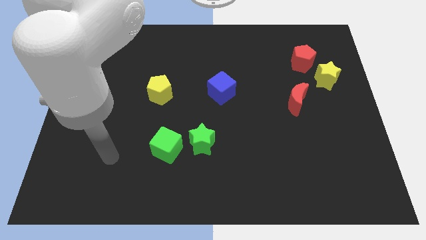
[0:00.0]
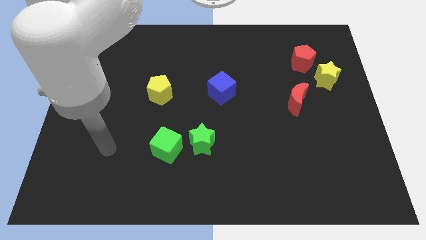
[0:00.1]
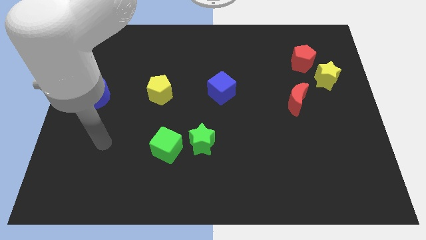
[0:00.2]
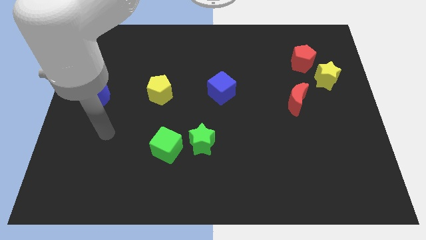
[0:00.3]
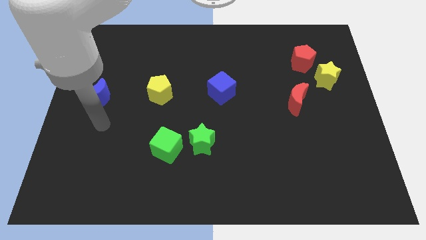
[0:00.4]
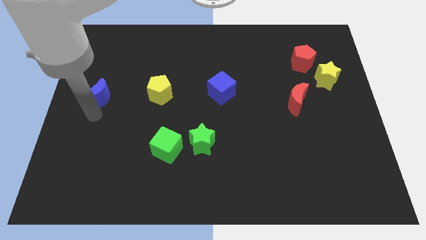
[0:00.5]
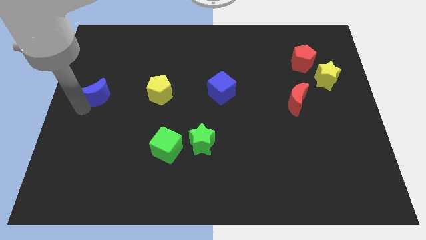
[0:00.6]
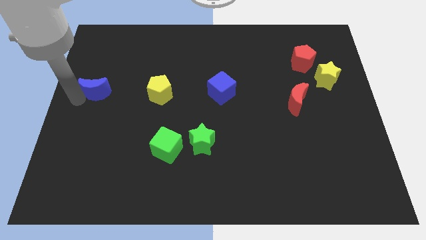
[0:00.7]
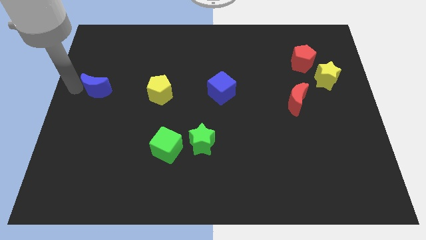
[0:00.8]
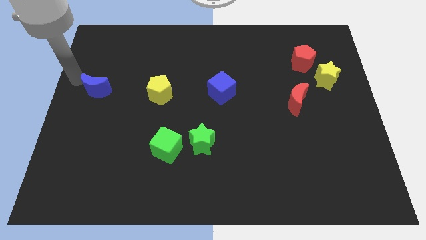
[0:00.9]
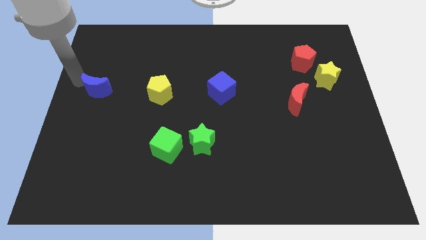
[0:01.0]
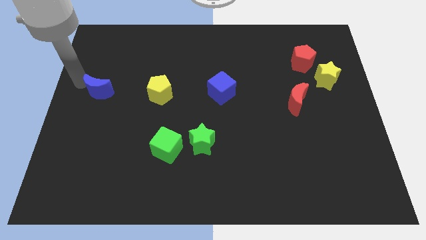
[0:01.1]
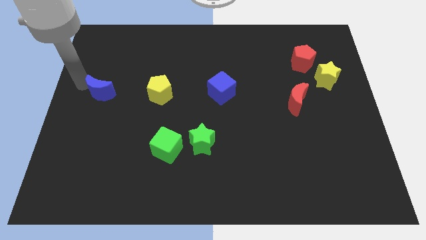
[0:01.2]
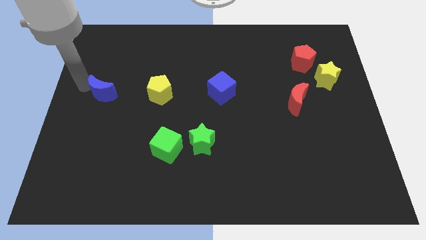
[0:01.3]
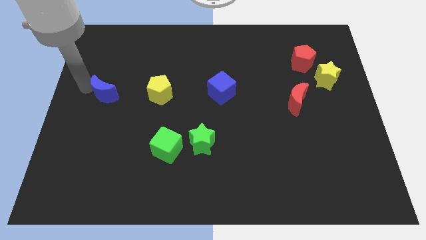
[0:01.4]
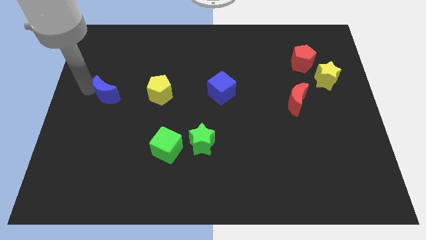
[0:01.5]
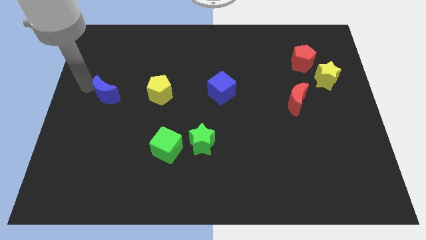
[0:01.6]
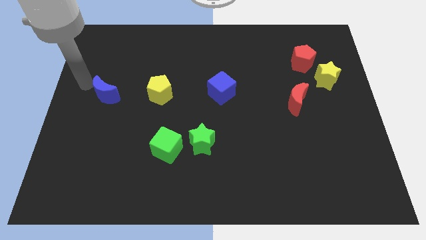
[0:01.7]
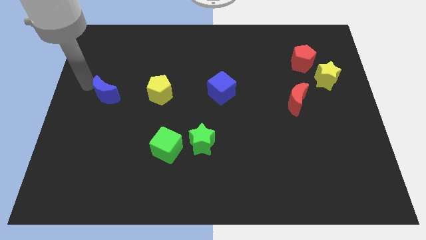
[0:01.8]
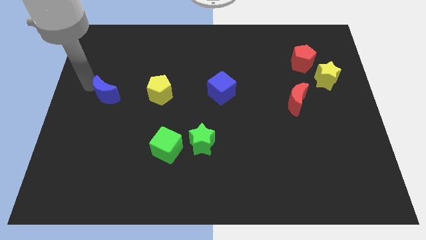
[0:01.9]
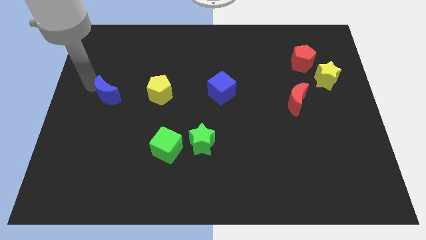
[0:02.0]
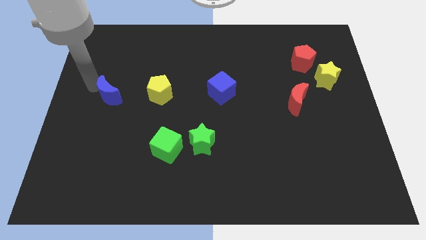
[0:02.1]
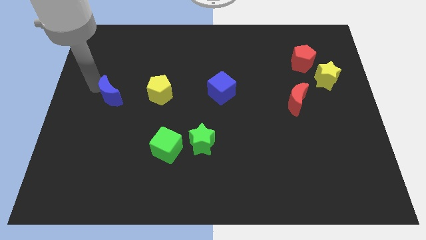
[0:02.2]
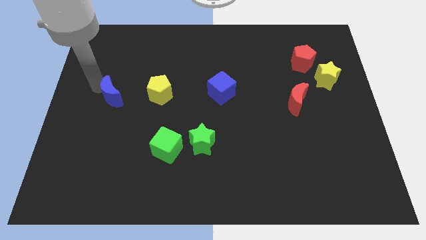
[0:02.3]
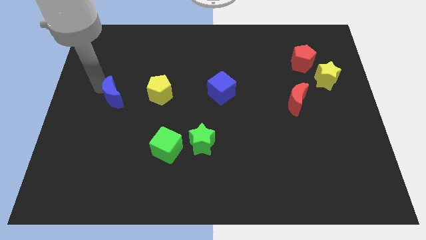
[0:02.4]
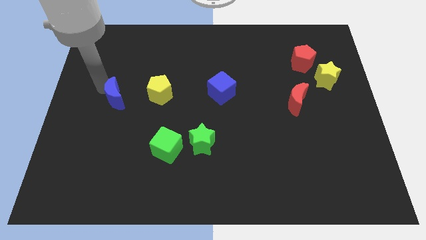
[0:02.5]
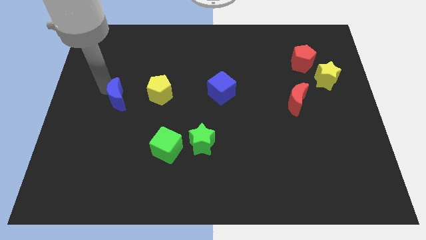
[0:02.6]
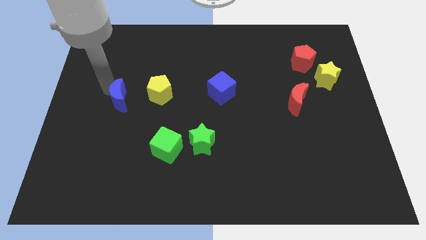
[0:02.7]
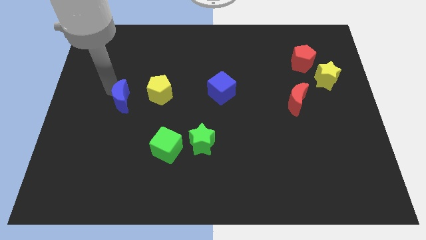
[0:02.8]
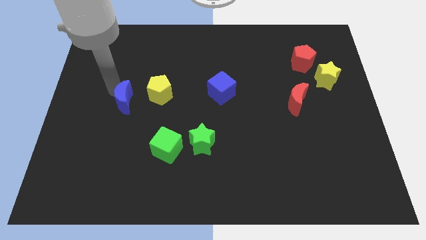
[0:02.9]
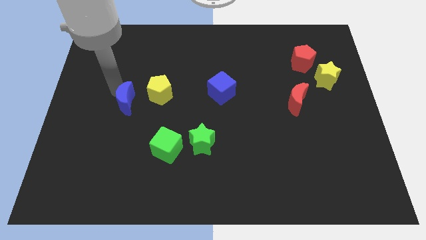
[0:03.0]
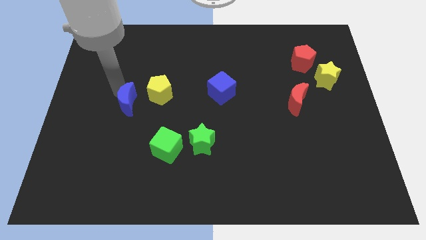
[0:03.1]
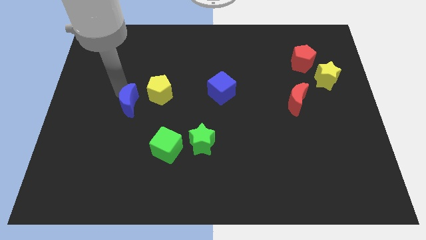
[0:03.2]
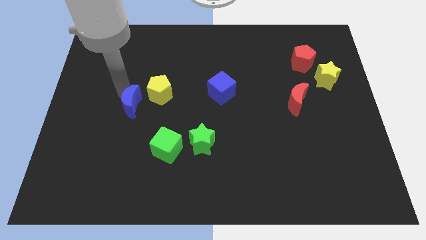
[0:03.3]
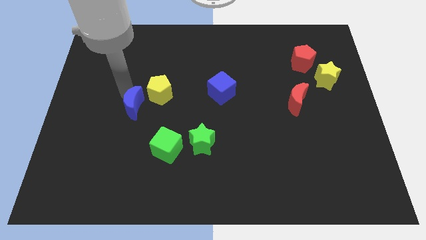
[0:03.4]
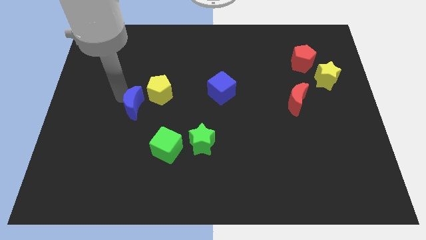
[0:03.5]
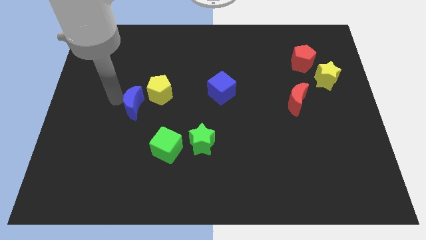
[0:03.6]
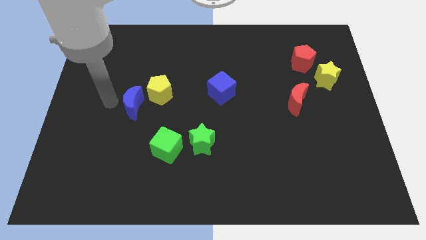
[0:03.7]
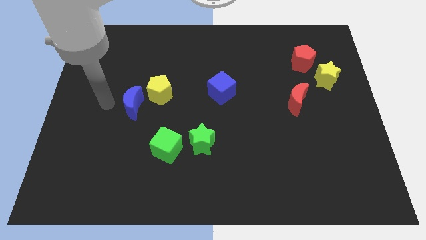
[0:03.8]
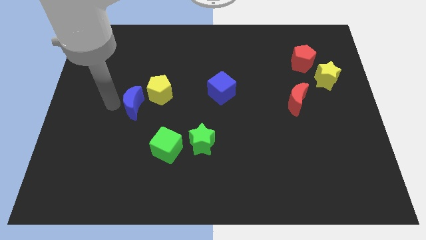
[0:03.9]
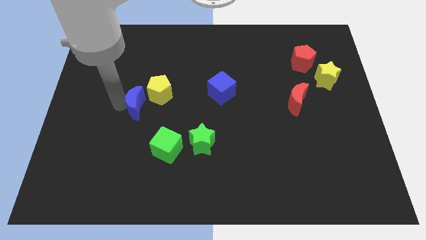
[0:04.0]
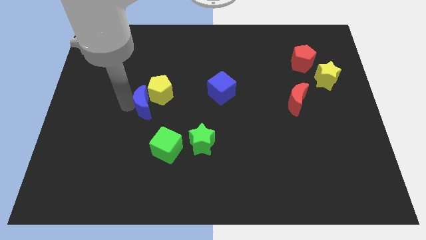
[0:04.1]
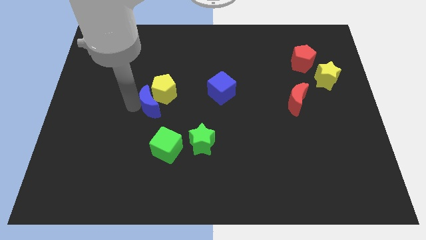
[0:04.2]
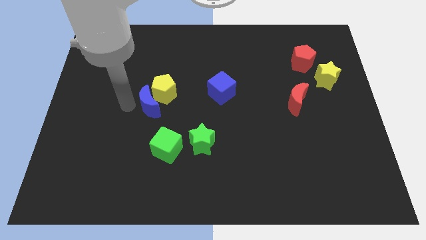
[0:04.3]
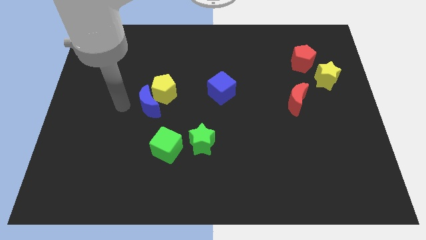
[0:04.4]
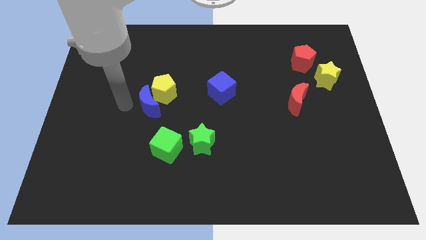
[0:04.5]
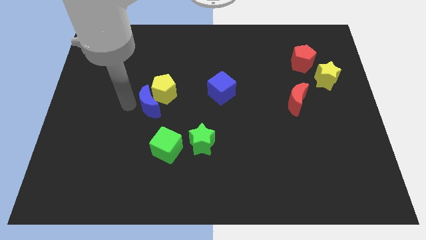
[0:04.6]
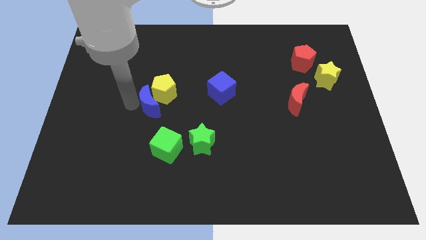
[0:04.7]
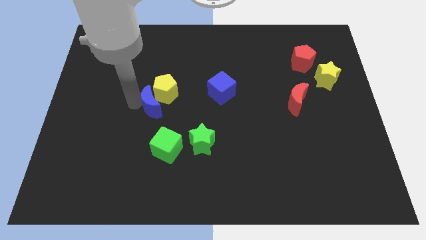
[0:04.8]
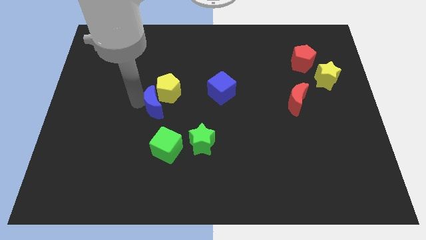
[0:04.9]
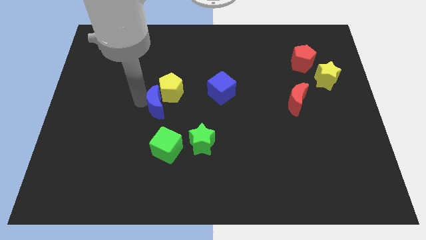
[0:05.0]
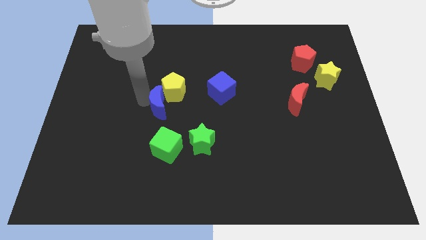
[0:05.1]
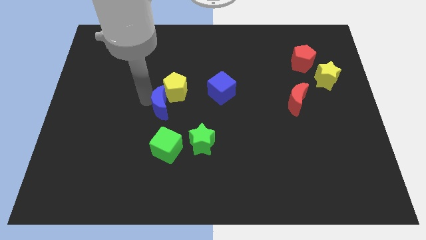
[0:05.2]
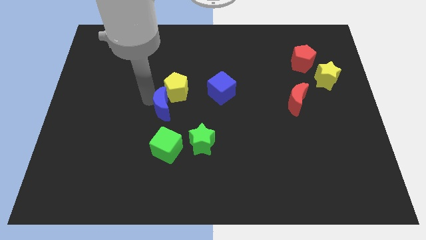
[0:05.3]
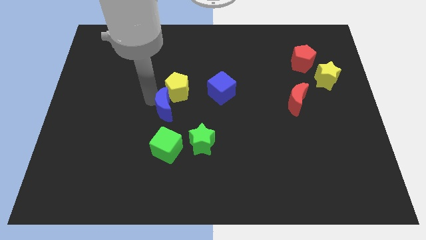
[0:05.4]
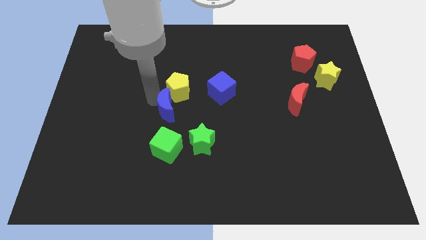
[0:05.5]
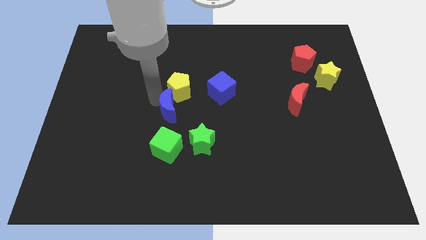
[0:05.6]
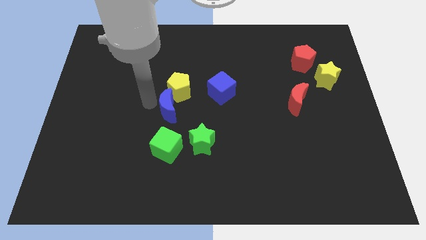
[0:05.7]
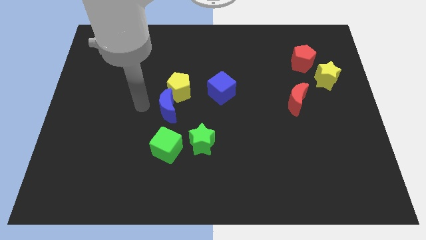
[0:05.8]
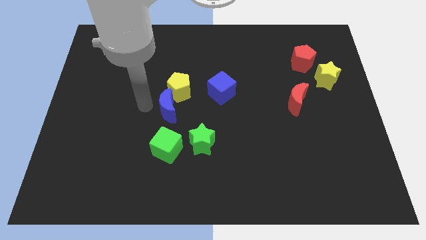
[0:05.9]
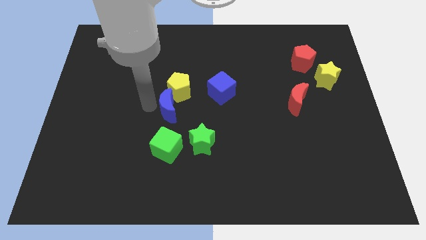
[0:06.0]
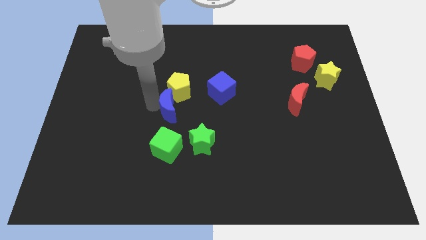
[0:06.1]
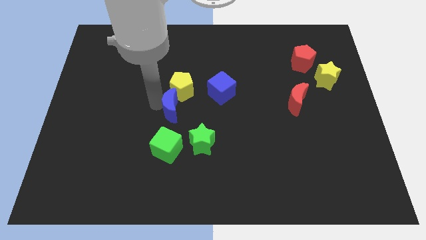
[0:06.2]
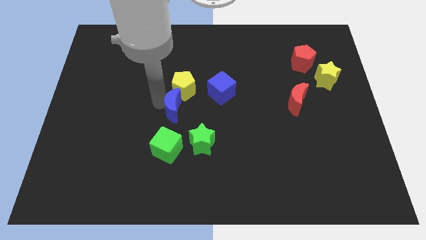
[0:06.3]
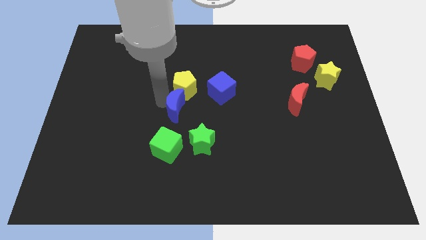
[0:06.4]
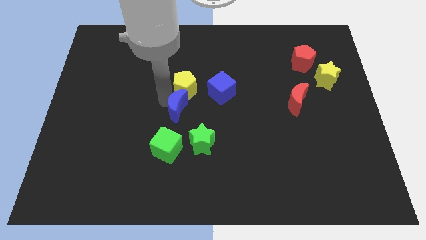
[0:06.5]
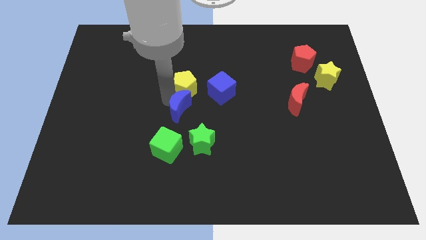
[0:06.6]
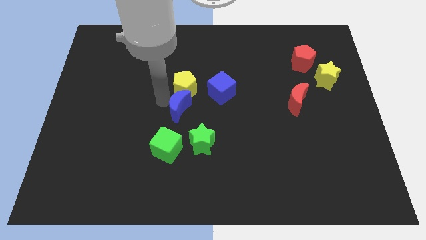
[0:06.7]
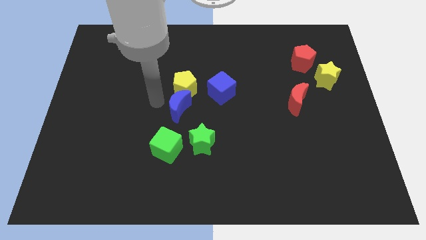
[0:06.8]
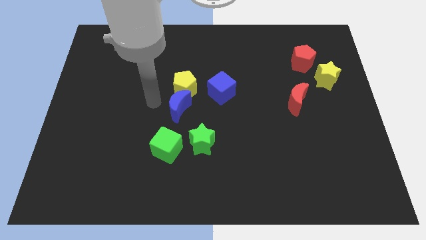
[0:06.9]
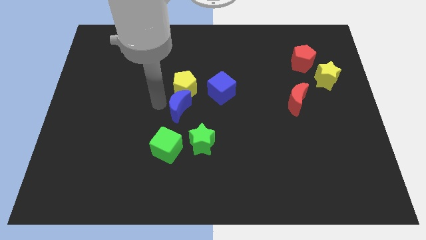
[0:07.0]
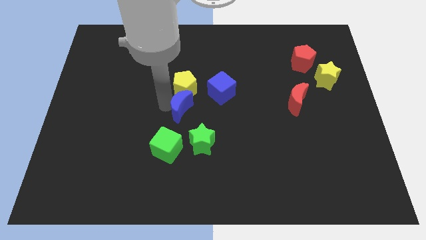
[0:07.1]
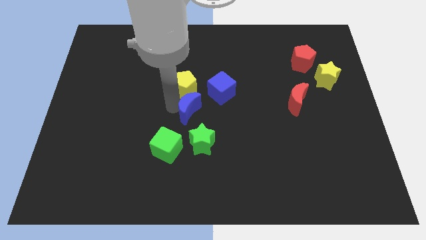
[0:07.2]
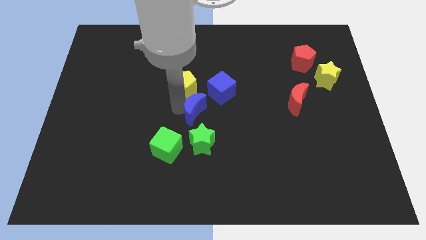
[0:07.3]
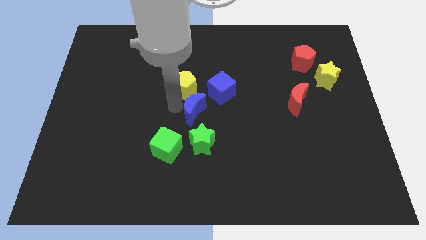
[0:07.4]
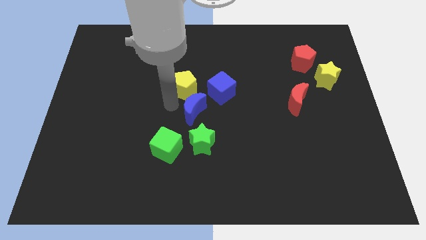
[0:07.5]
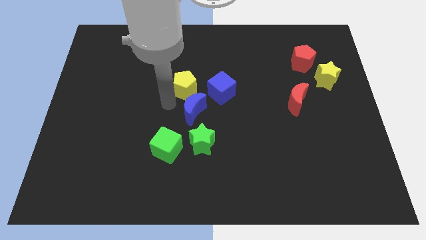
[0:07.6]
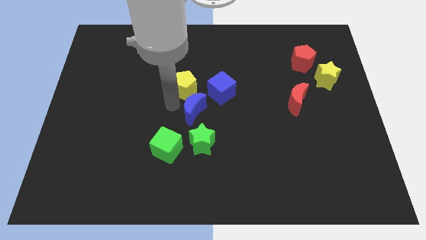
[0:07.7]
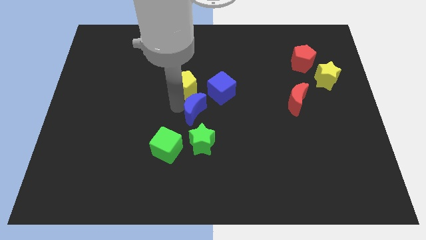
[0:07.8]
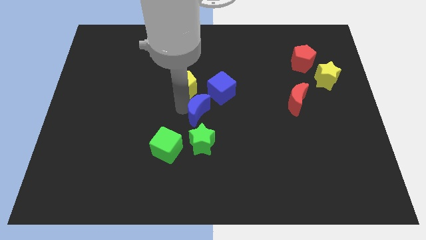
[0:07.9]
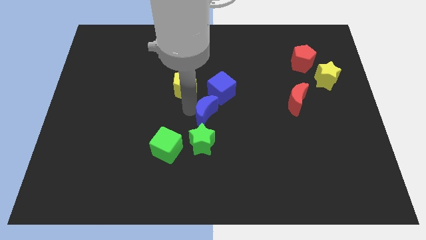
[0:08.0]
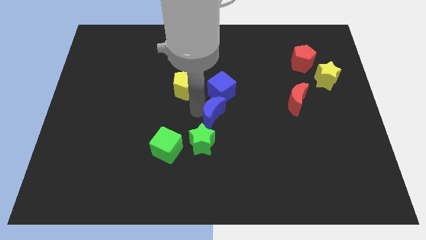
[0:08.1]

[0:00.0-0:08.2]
push the blue moon to the top right side of the green star
